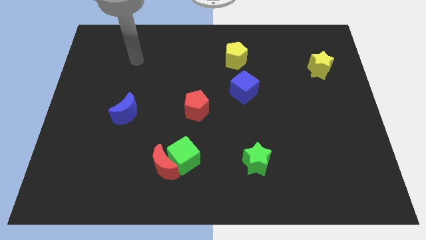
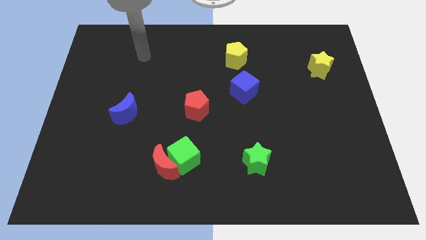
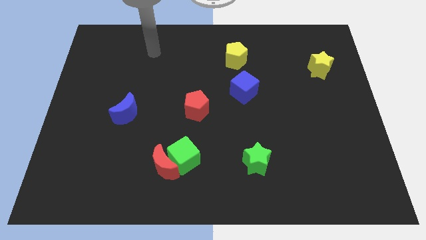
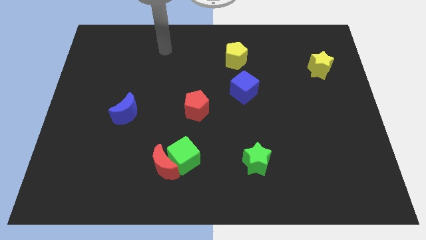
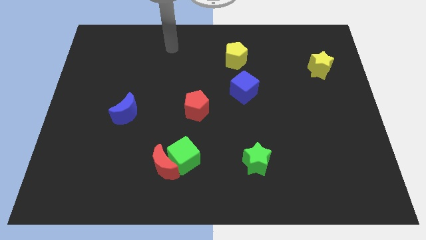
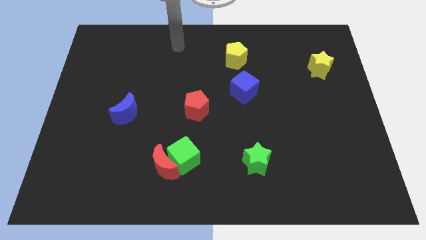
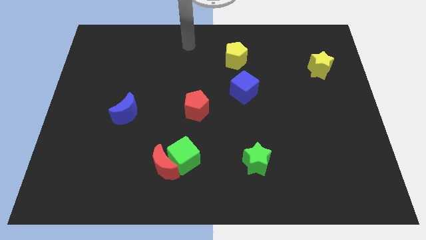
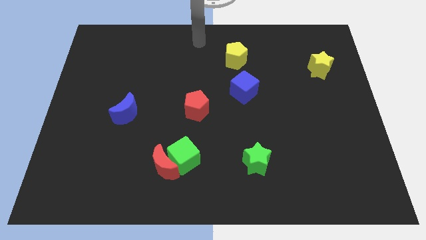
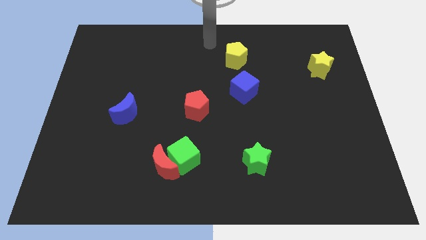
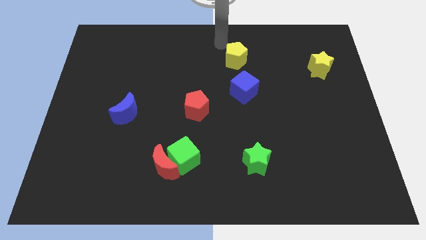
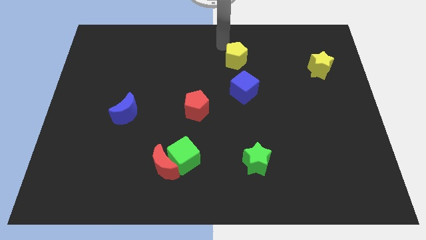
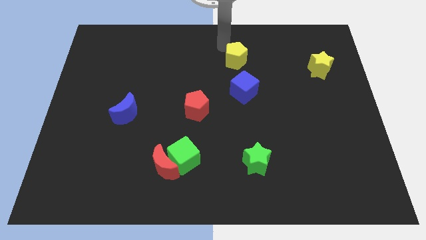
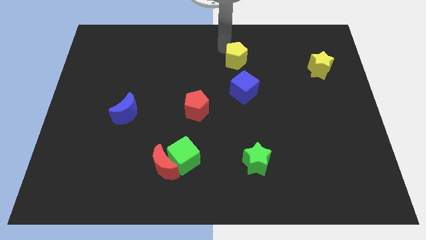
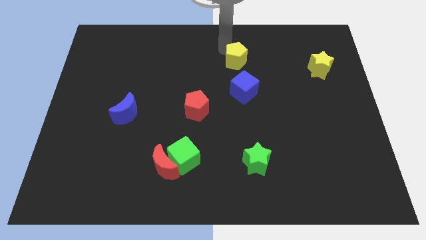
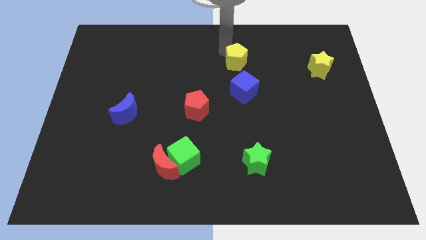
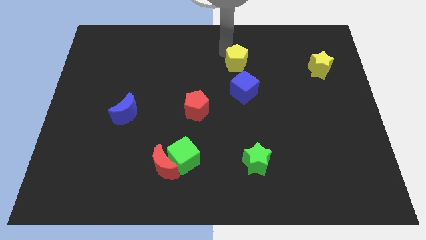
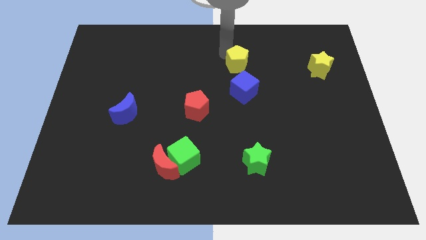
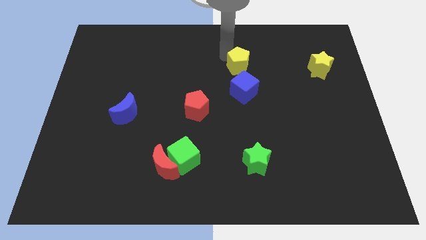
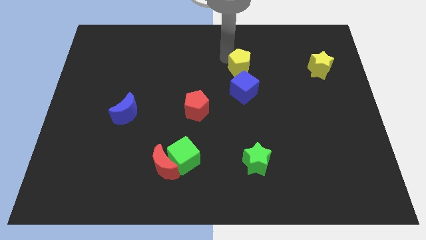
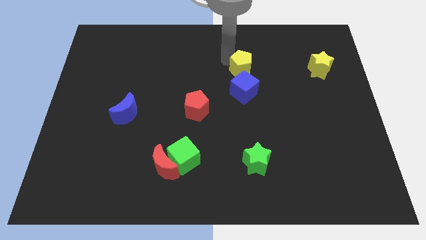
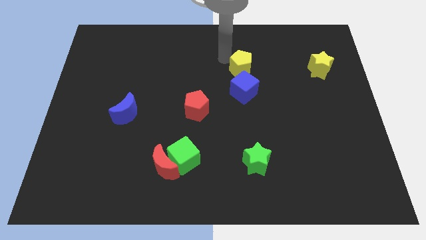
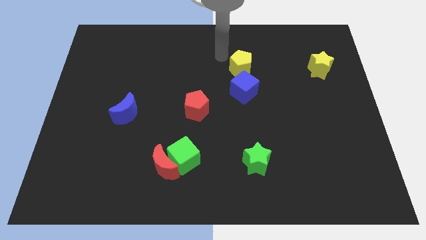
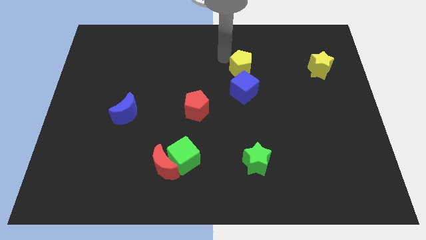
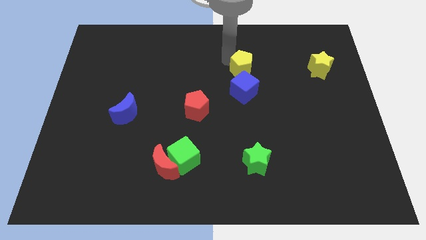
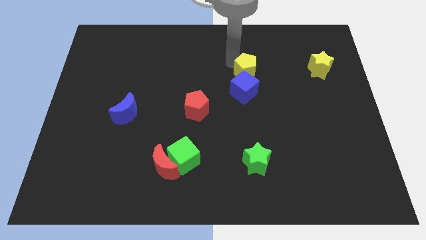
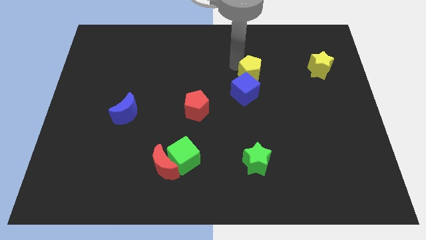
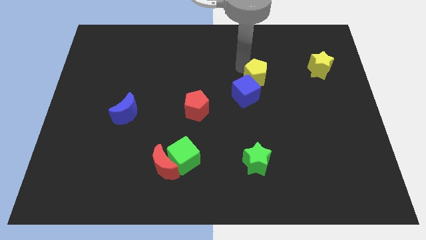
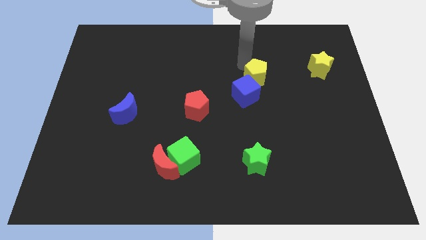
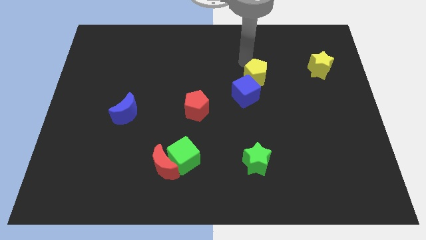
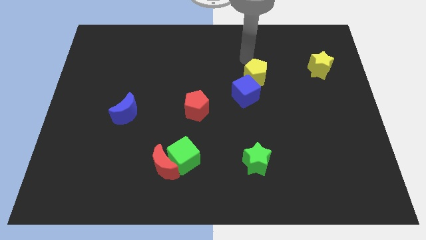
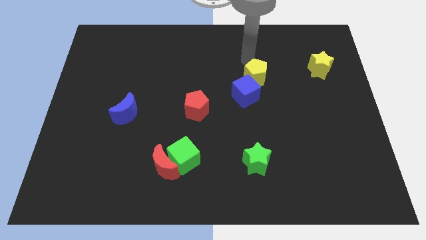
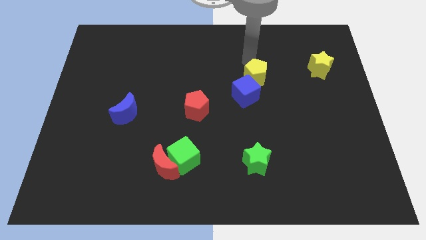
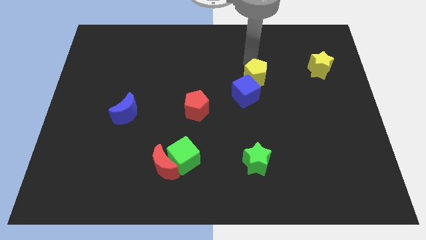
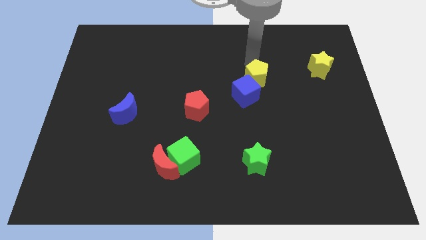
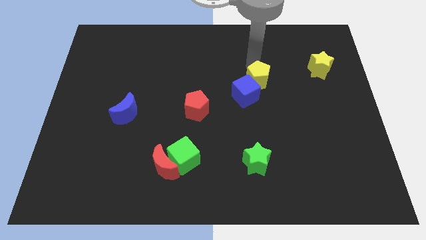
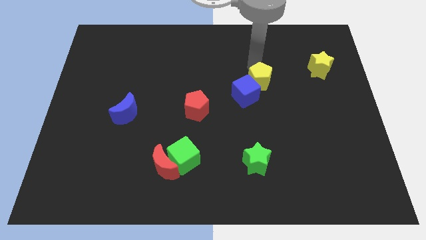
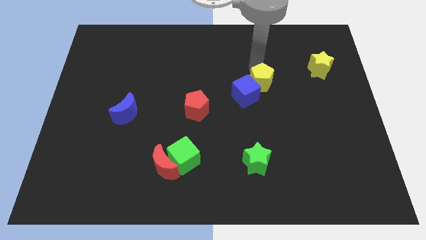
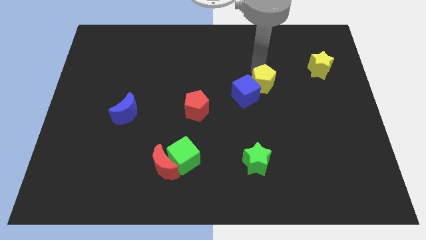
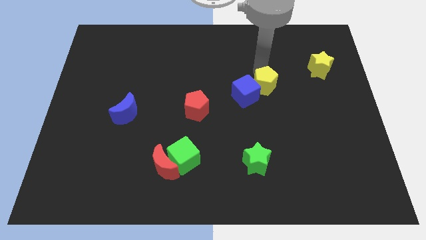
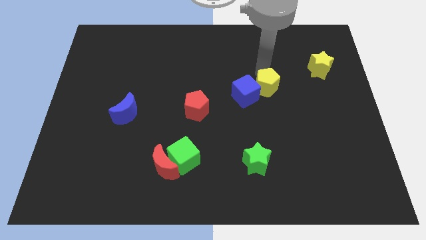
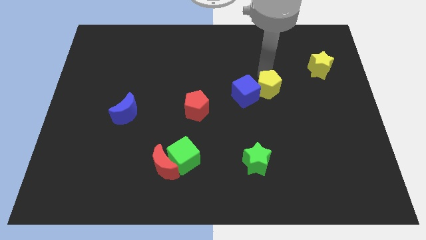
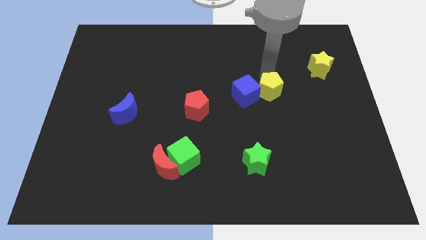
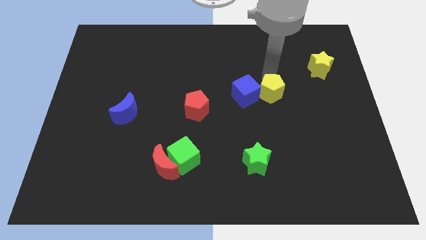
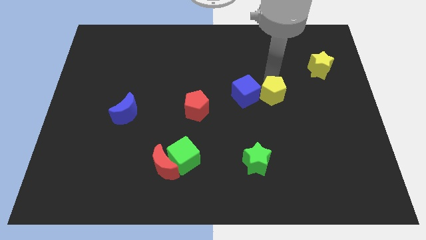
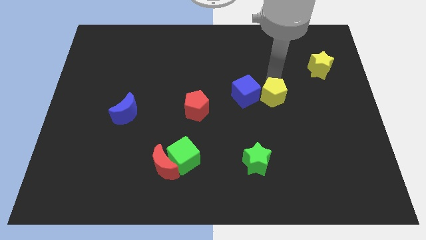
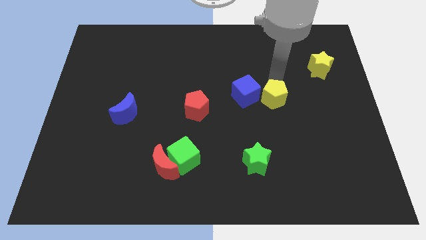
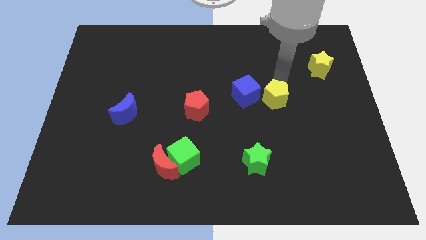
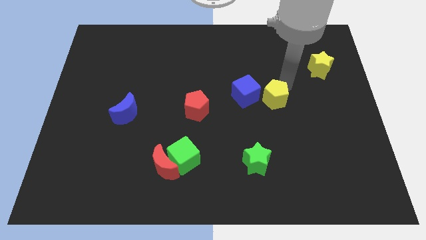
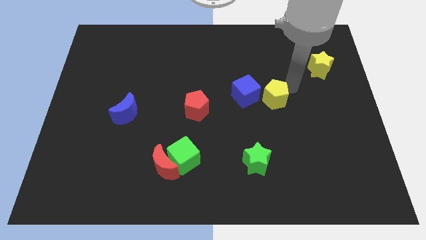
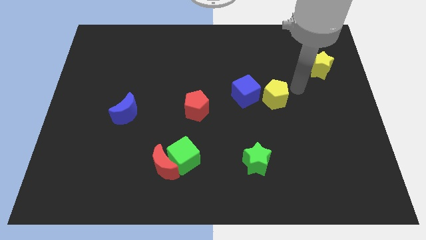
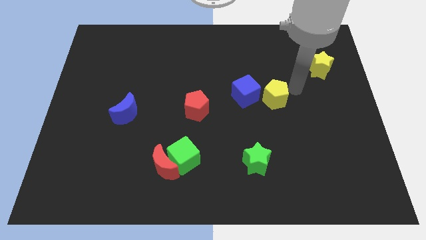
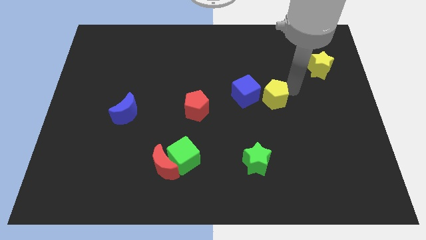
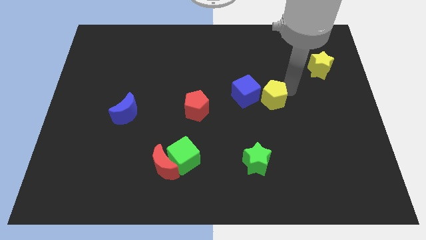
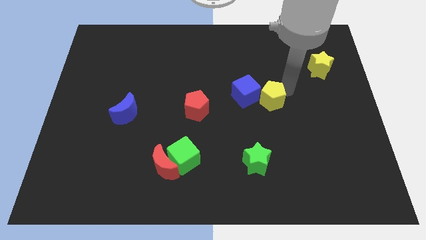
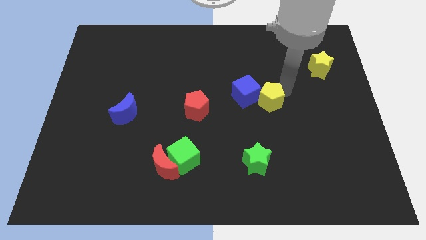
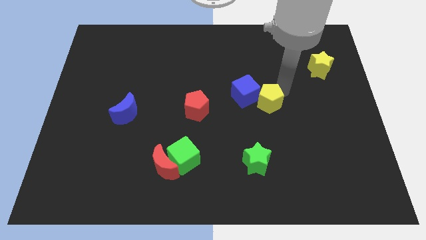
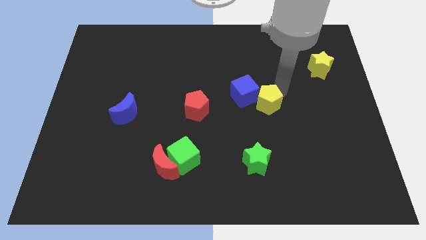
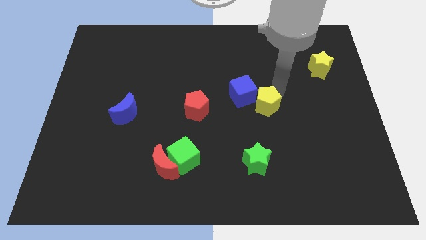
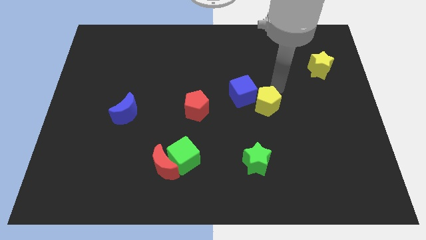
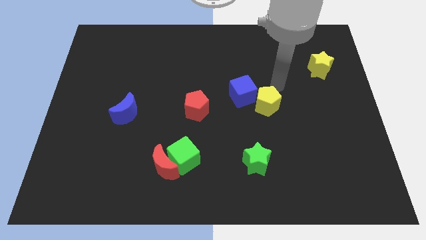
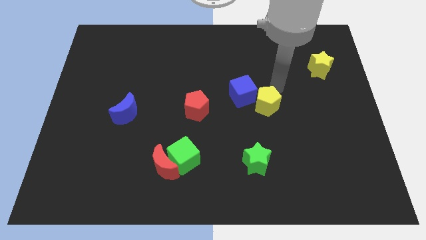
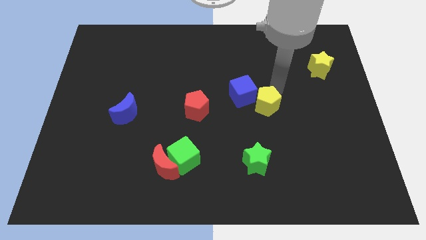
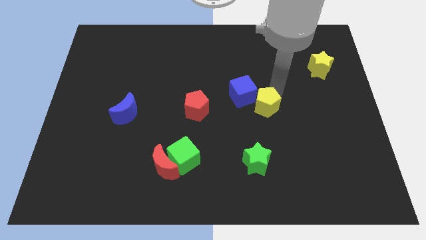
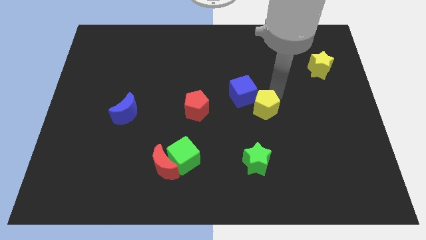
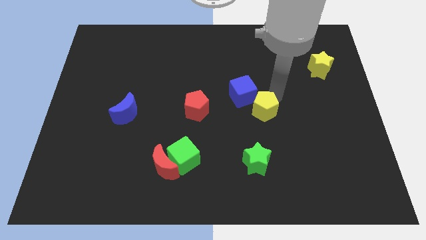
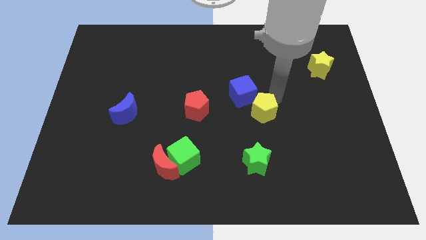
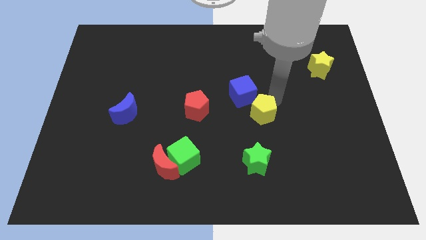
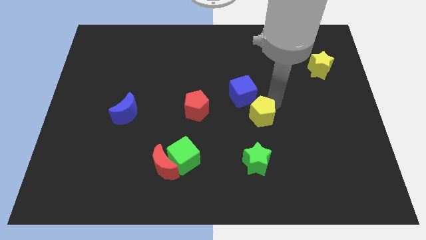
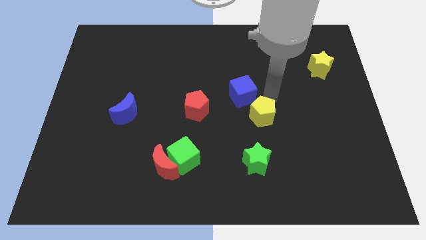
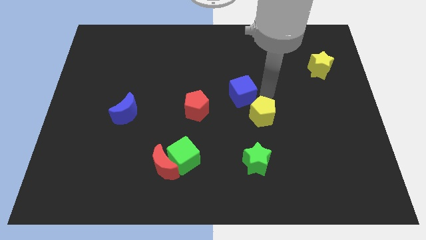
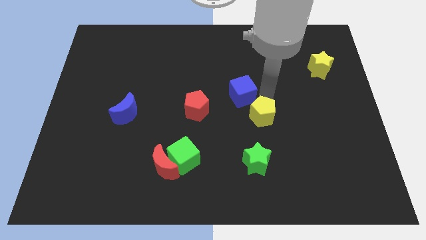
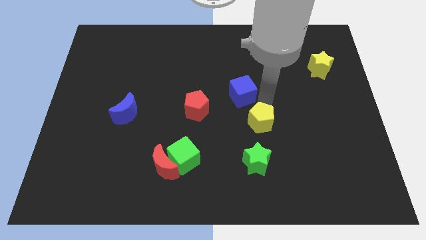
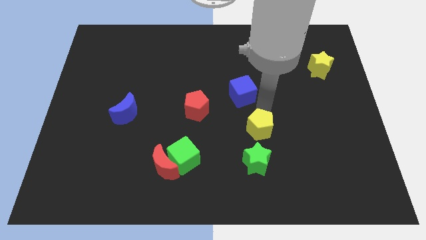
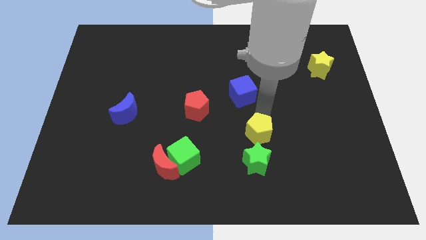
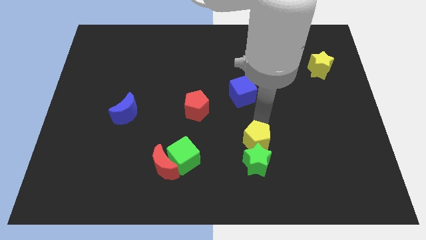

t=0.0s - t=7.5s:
push the yellow pentagon to the green star
